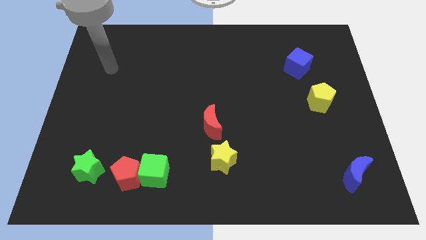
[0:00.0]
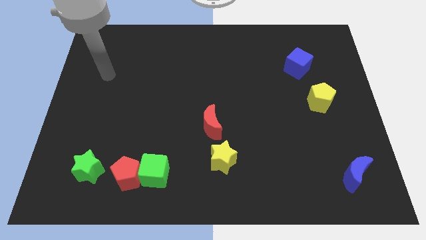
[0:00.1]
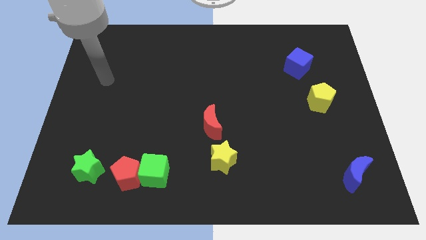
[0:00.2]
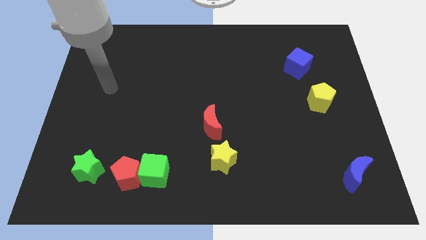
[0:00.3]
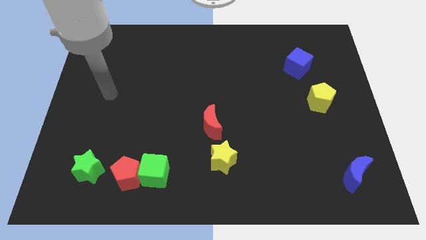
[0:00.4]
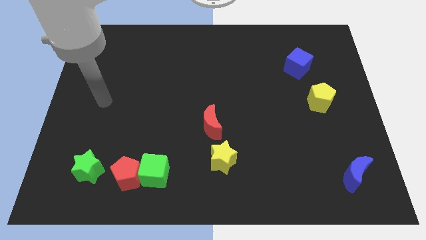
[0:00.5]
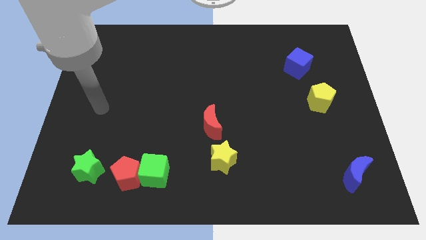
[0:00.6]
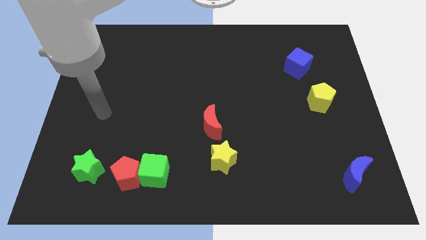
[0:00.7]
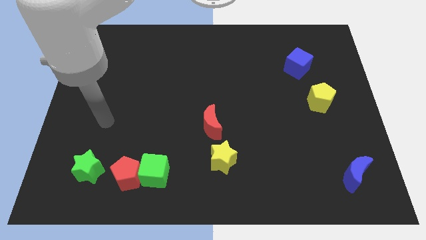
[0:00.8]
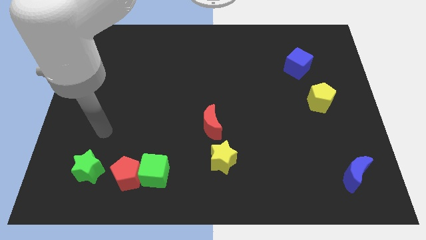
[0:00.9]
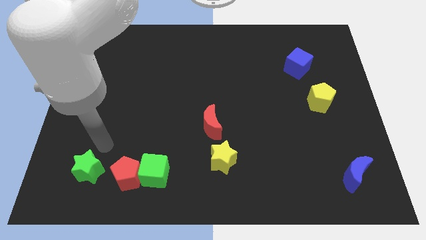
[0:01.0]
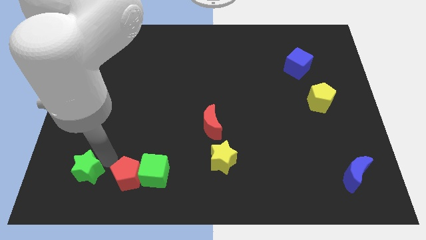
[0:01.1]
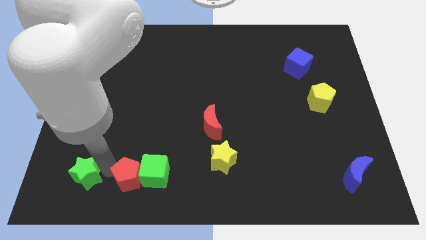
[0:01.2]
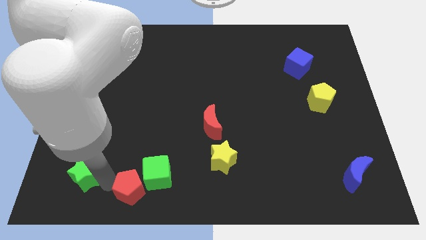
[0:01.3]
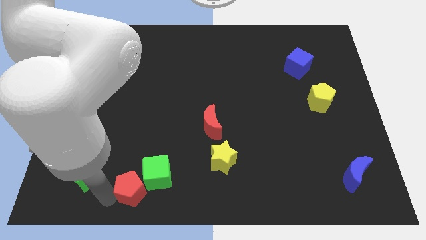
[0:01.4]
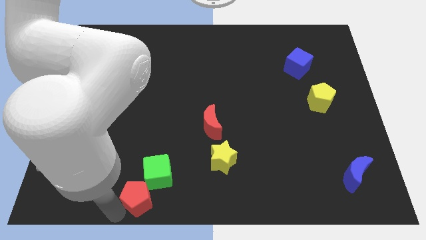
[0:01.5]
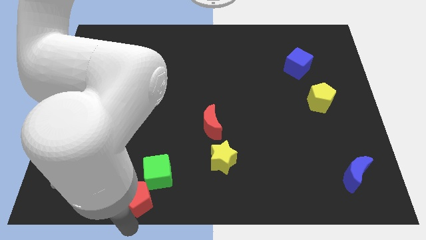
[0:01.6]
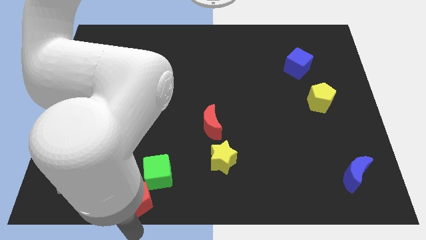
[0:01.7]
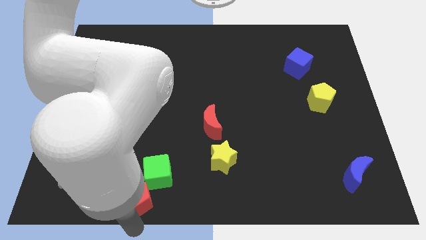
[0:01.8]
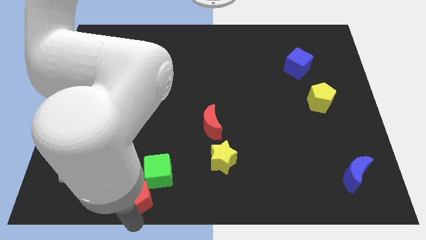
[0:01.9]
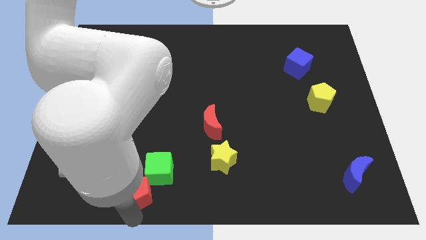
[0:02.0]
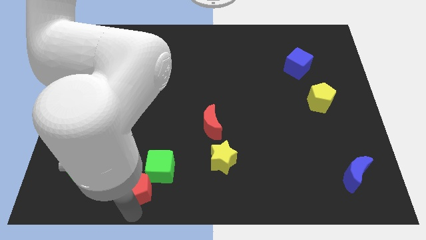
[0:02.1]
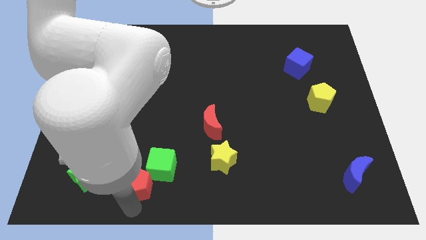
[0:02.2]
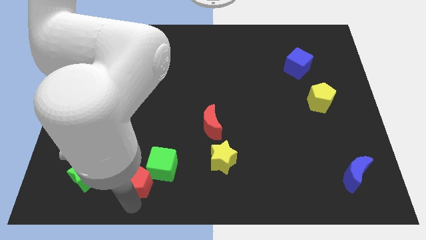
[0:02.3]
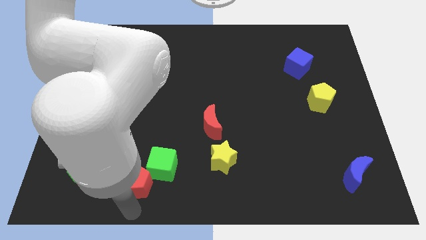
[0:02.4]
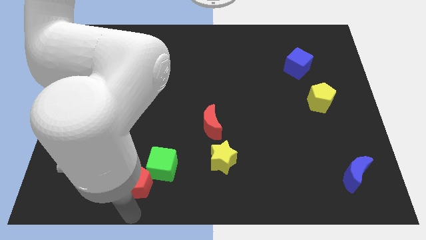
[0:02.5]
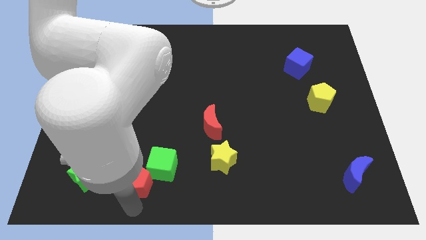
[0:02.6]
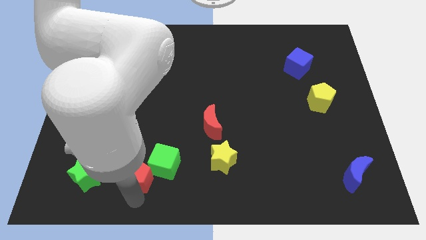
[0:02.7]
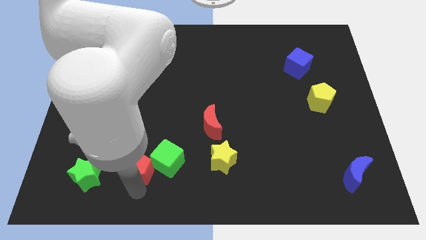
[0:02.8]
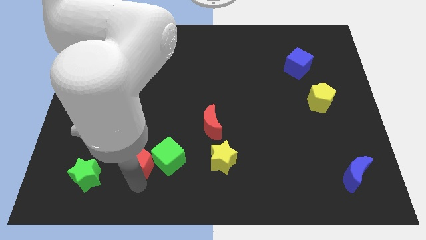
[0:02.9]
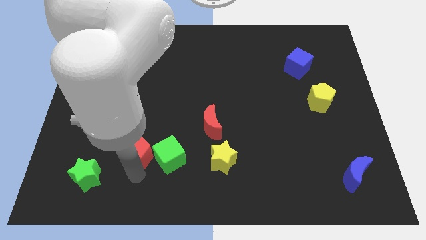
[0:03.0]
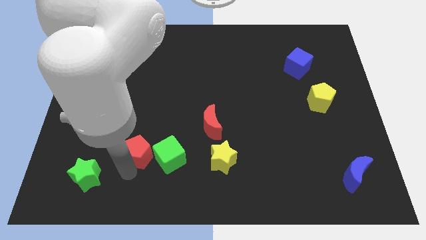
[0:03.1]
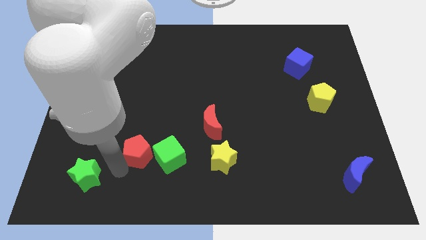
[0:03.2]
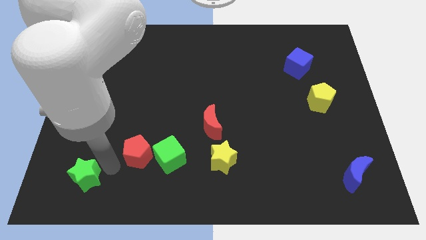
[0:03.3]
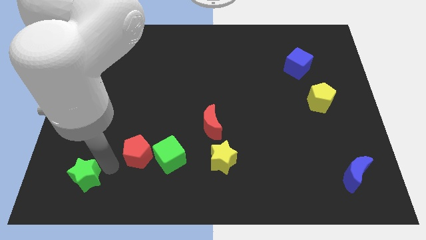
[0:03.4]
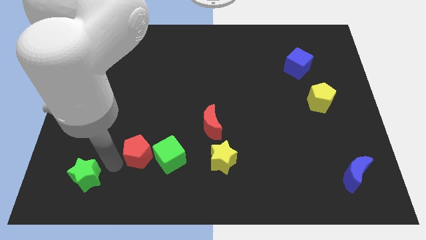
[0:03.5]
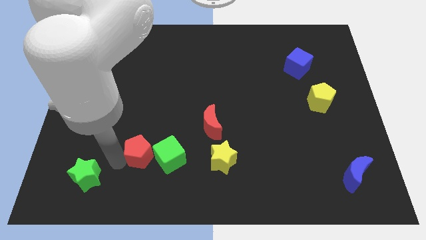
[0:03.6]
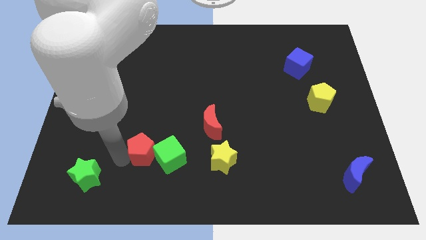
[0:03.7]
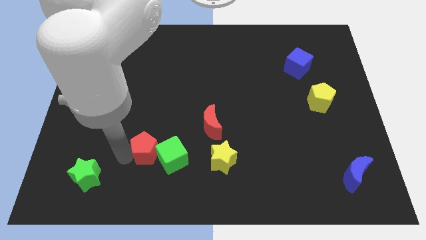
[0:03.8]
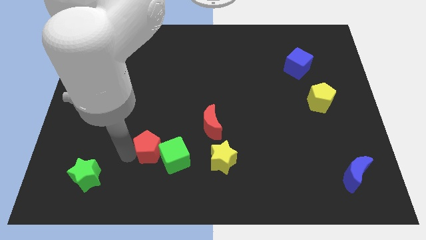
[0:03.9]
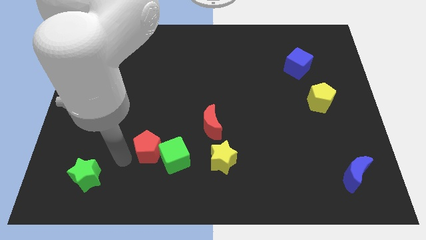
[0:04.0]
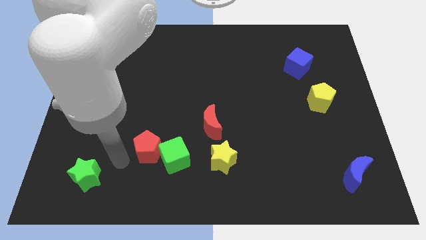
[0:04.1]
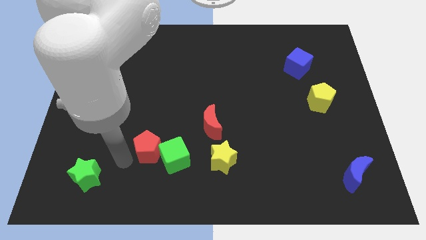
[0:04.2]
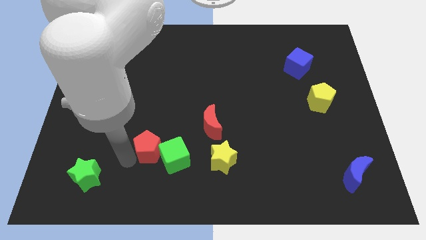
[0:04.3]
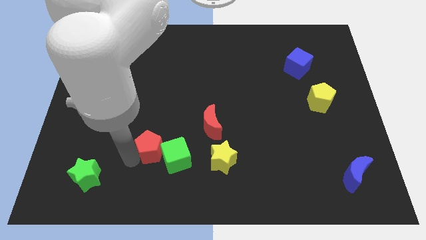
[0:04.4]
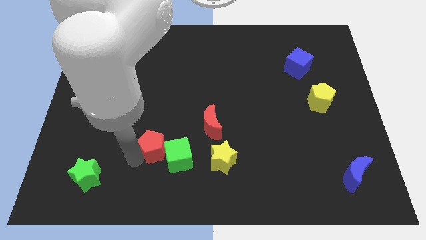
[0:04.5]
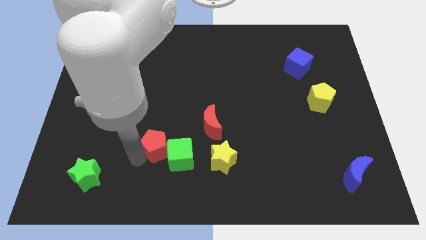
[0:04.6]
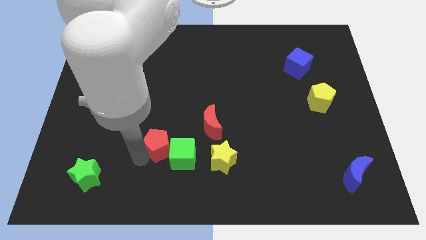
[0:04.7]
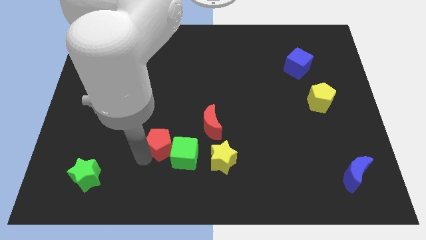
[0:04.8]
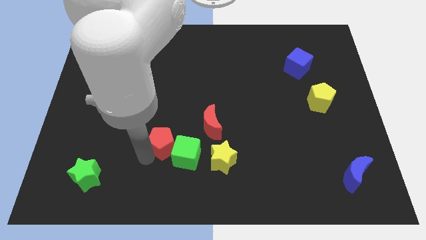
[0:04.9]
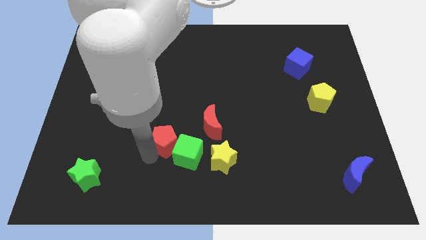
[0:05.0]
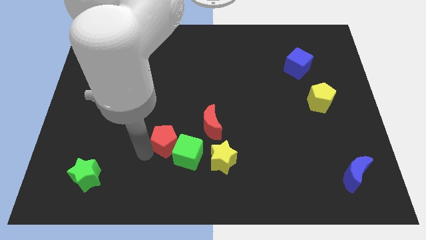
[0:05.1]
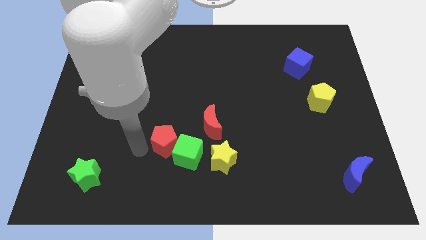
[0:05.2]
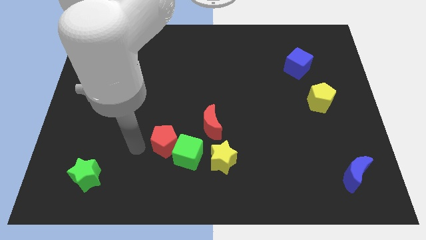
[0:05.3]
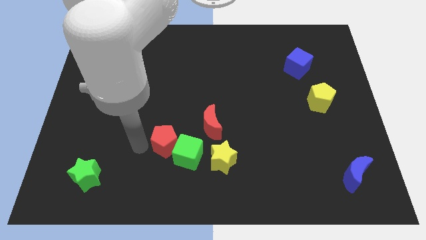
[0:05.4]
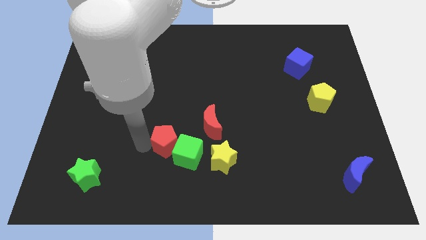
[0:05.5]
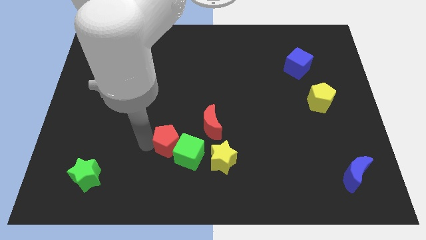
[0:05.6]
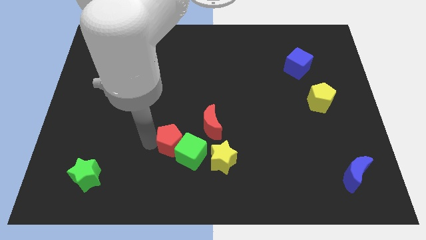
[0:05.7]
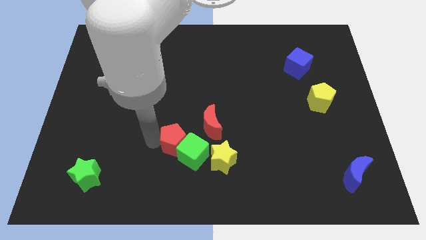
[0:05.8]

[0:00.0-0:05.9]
move the red pentagon diagonally up and to the left of the yellow star
